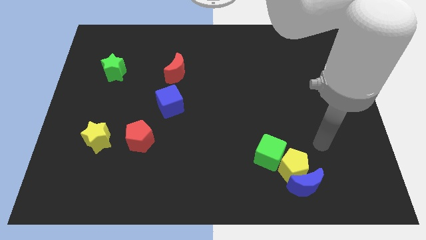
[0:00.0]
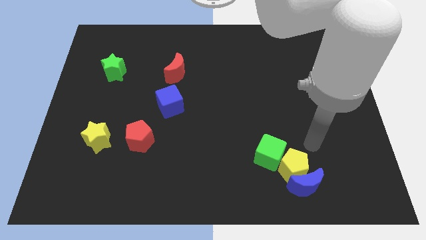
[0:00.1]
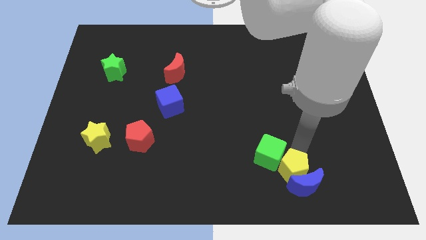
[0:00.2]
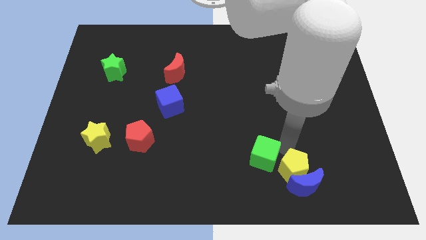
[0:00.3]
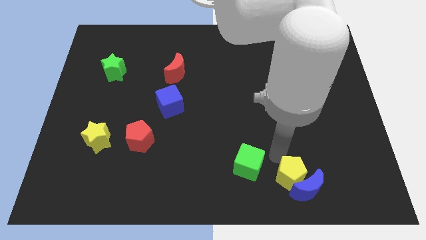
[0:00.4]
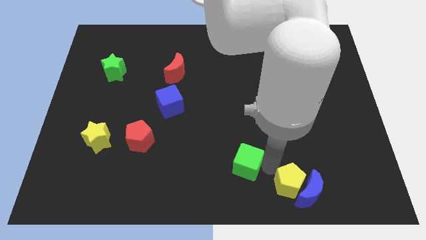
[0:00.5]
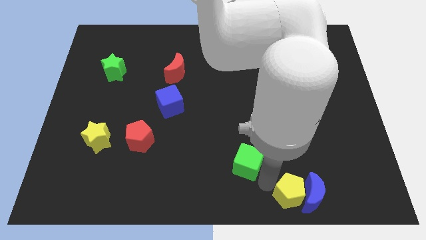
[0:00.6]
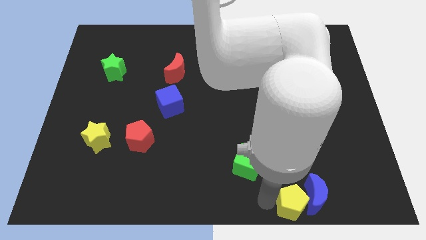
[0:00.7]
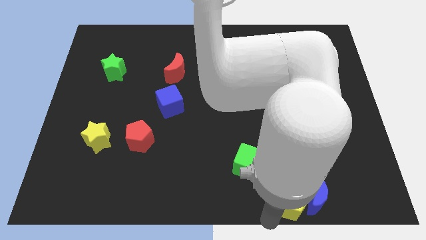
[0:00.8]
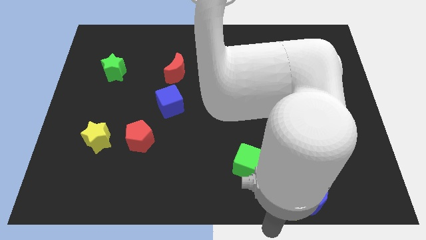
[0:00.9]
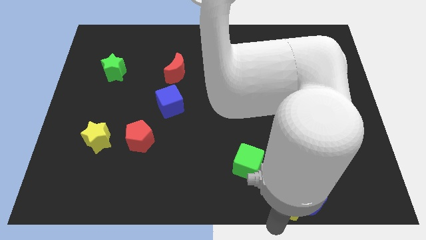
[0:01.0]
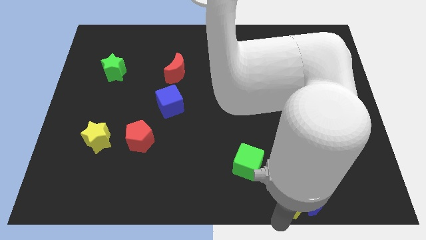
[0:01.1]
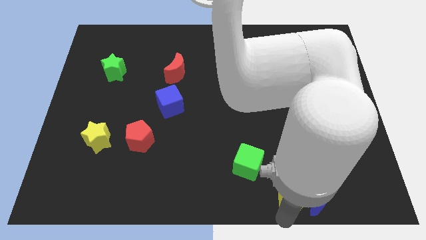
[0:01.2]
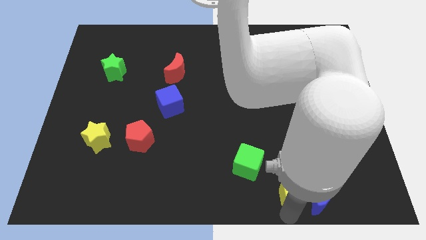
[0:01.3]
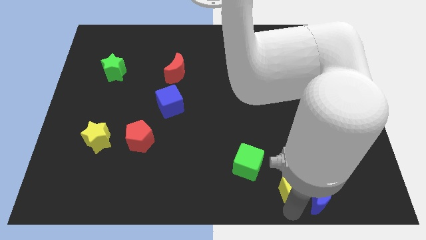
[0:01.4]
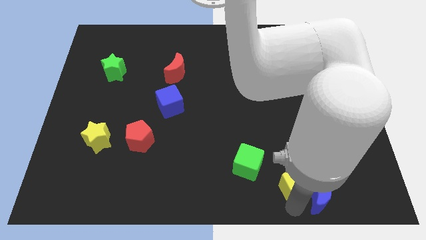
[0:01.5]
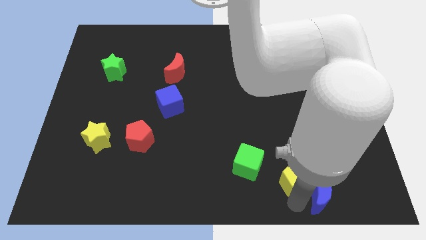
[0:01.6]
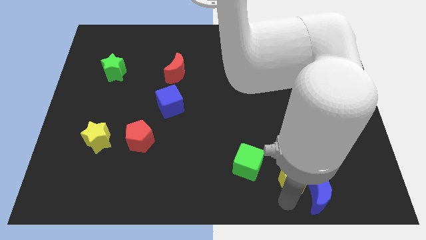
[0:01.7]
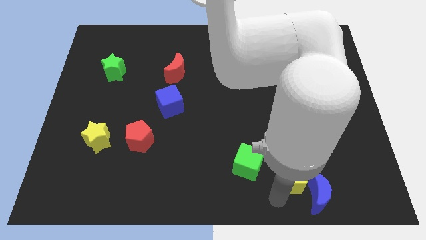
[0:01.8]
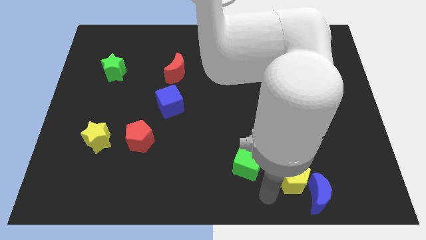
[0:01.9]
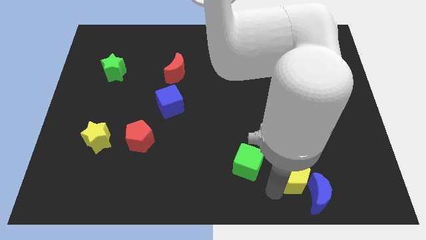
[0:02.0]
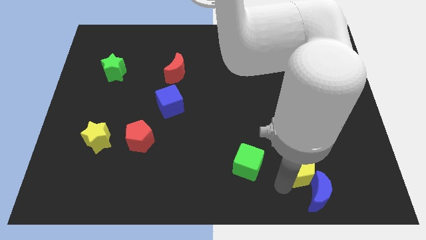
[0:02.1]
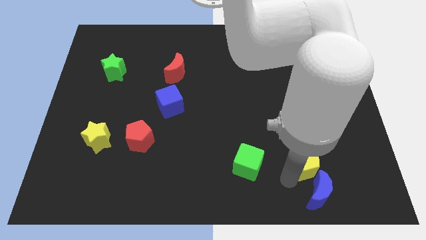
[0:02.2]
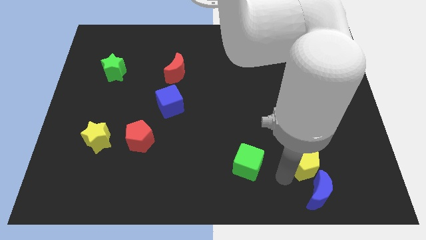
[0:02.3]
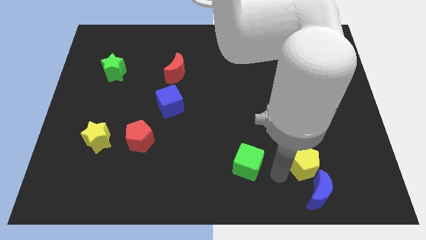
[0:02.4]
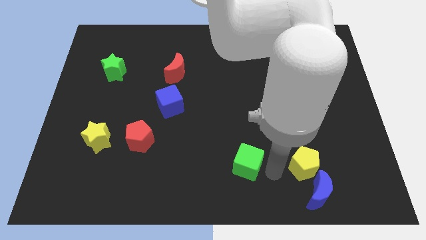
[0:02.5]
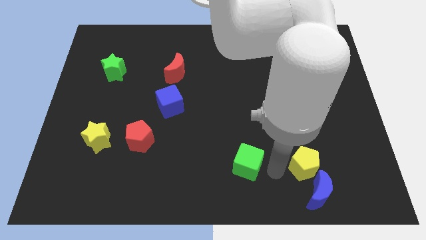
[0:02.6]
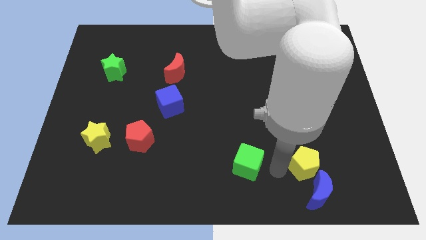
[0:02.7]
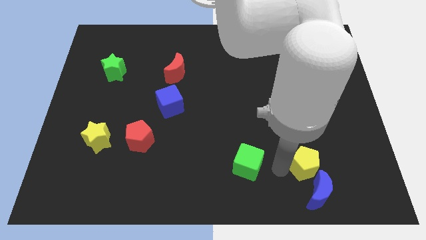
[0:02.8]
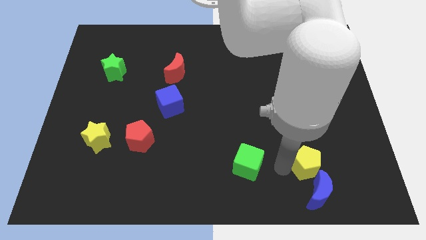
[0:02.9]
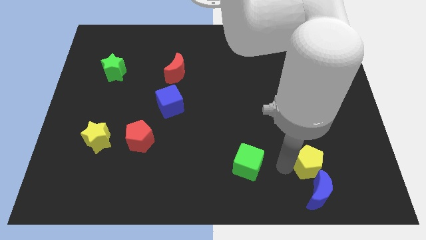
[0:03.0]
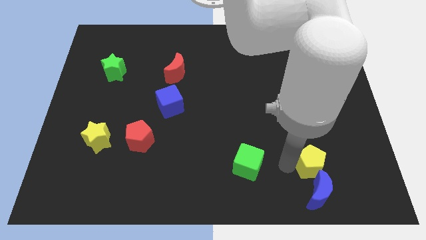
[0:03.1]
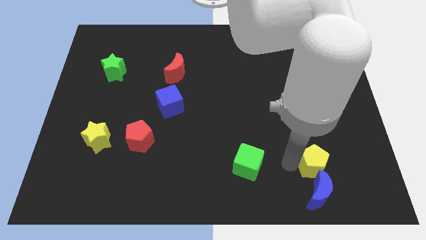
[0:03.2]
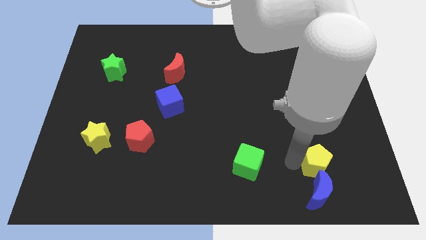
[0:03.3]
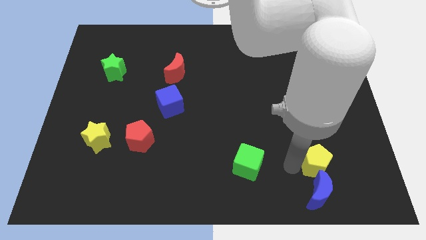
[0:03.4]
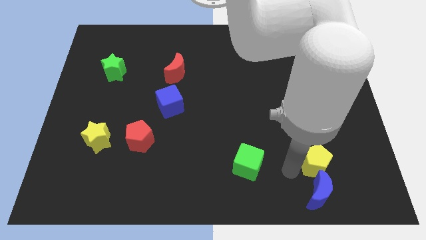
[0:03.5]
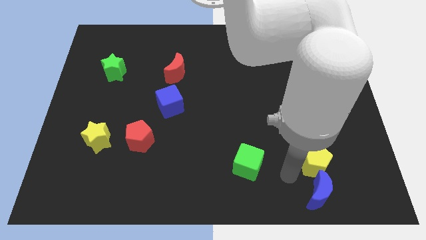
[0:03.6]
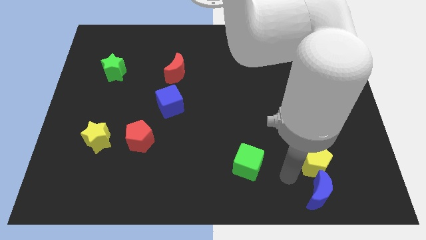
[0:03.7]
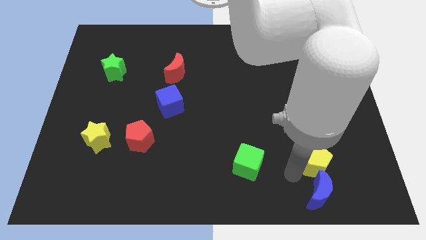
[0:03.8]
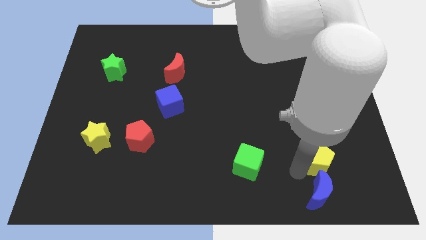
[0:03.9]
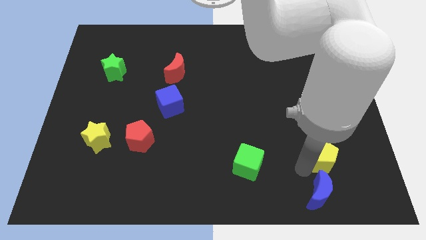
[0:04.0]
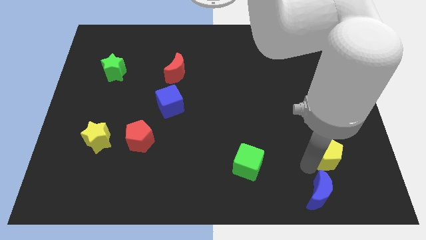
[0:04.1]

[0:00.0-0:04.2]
pull the yellow pentagon apart from the blue moon and green cube

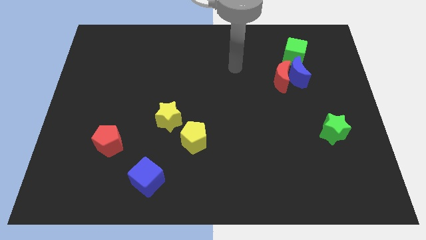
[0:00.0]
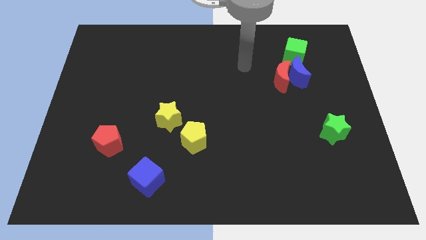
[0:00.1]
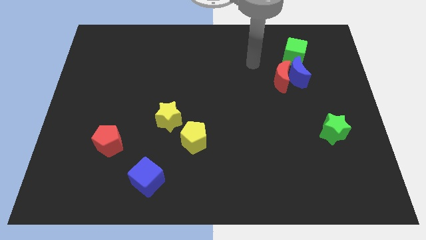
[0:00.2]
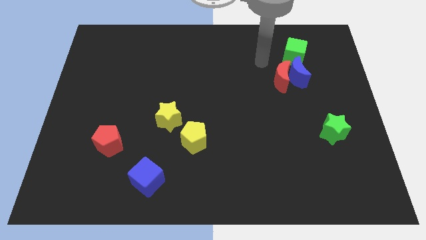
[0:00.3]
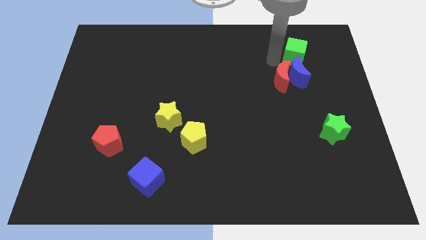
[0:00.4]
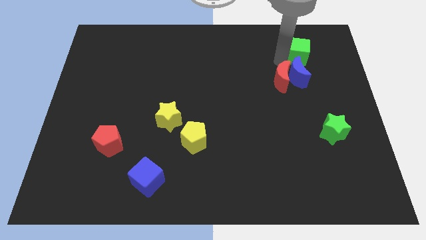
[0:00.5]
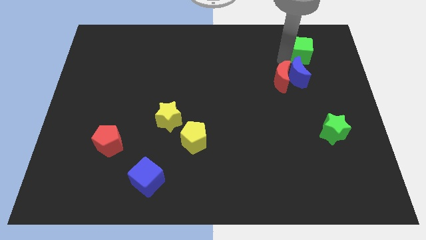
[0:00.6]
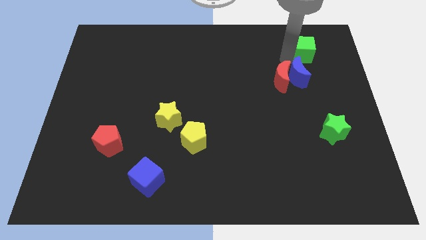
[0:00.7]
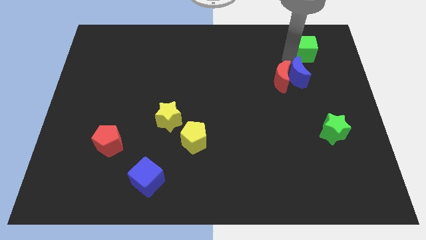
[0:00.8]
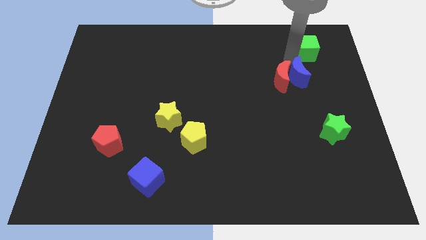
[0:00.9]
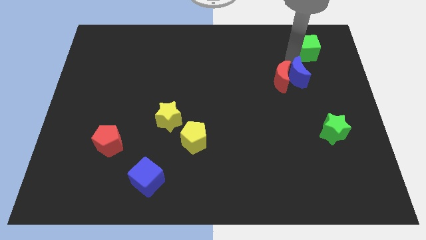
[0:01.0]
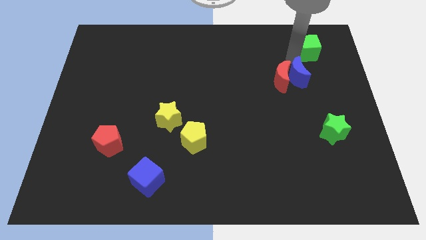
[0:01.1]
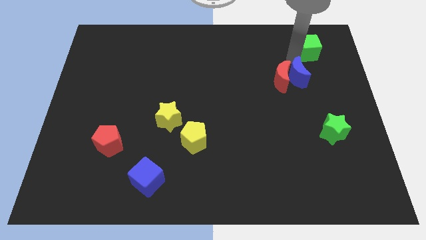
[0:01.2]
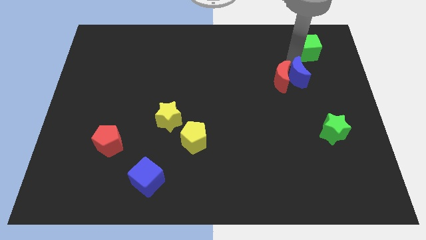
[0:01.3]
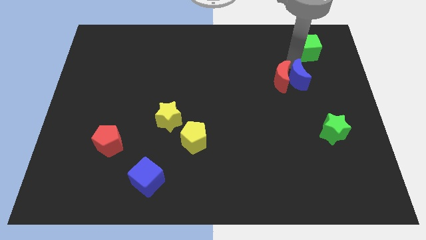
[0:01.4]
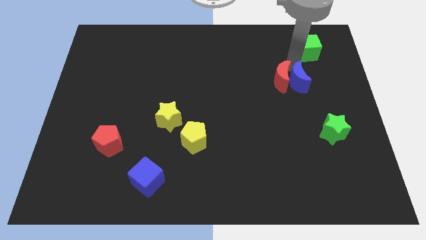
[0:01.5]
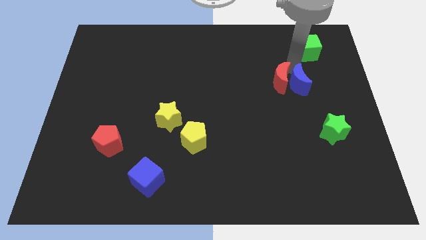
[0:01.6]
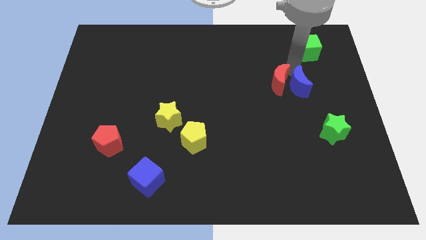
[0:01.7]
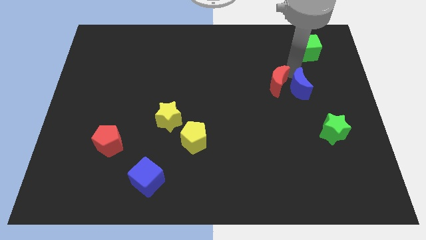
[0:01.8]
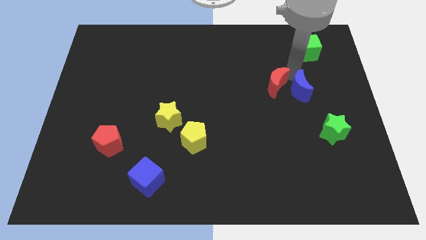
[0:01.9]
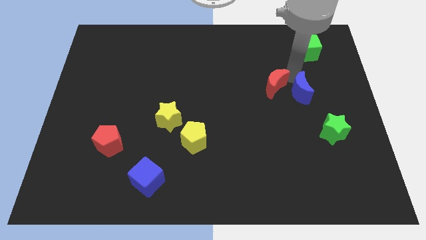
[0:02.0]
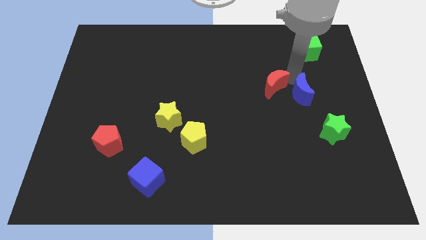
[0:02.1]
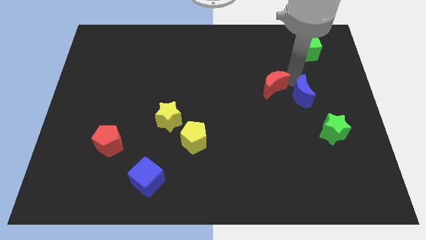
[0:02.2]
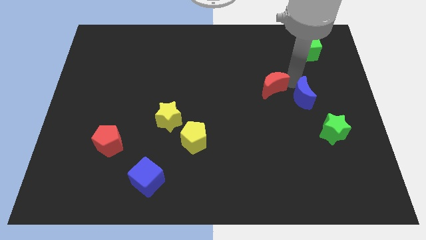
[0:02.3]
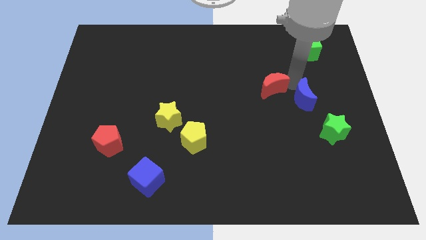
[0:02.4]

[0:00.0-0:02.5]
move the blue moon away from the red moon and green cube

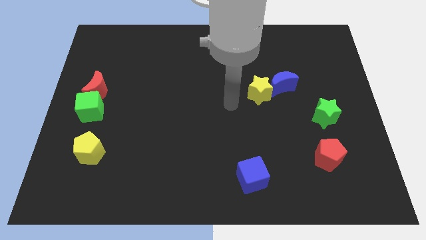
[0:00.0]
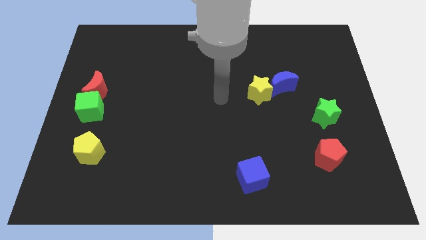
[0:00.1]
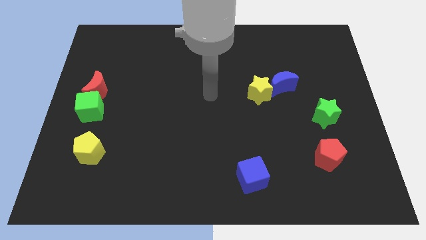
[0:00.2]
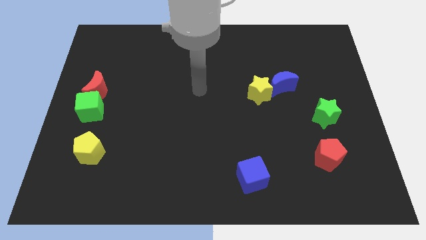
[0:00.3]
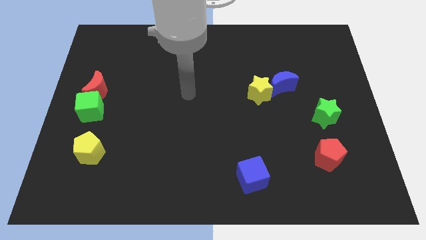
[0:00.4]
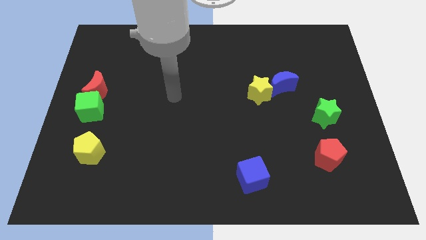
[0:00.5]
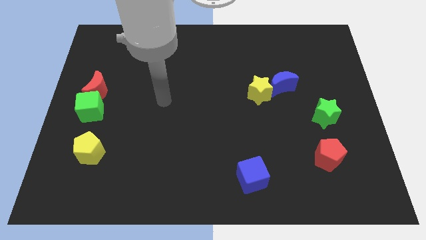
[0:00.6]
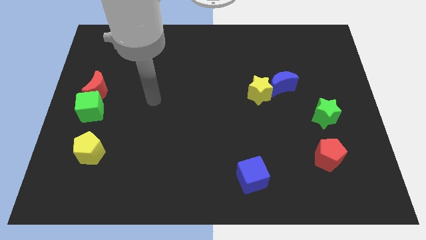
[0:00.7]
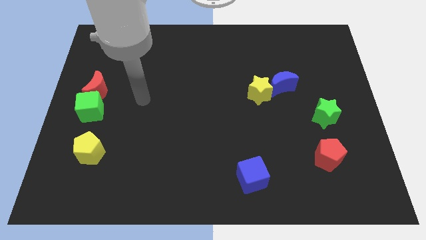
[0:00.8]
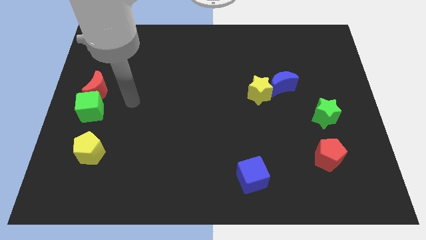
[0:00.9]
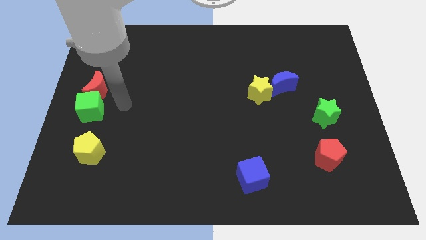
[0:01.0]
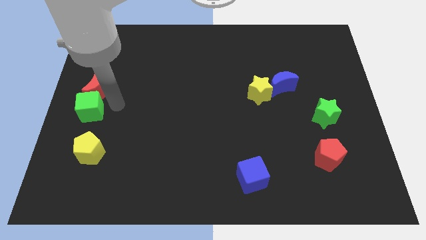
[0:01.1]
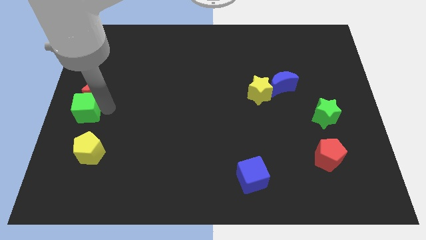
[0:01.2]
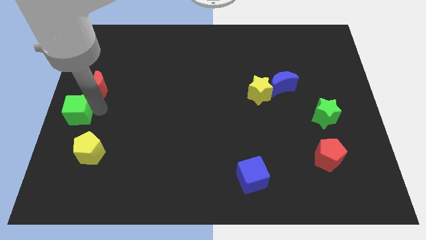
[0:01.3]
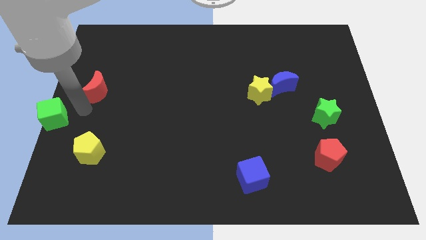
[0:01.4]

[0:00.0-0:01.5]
move the red moon away from the green cube

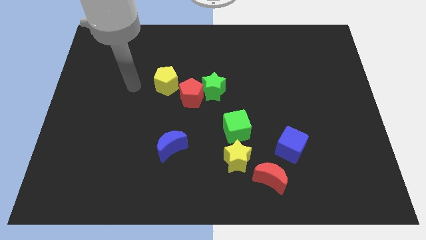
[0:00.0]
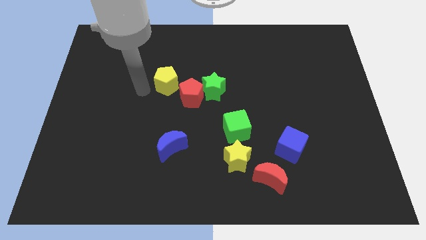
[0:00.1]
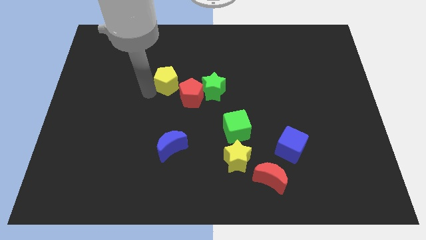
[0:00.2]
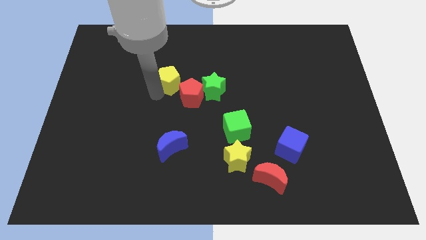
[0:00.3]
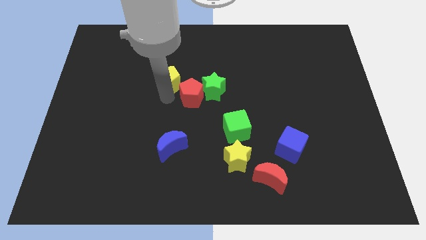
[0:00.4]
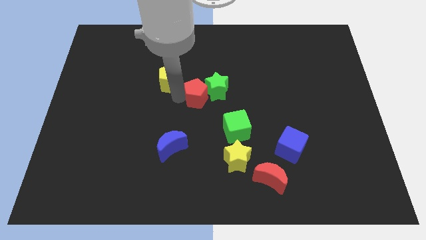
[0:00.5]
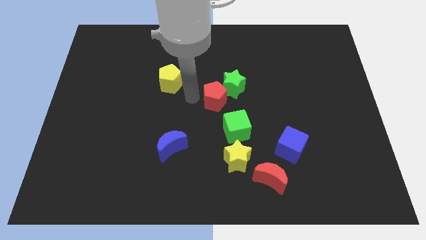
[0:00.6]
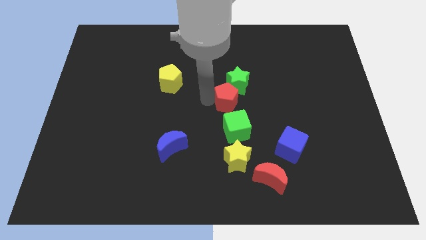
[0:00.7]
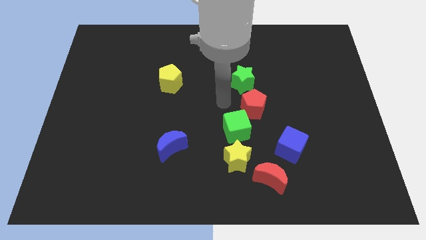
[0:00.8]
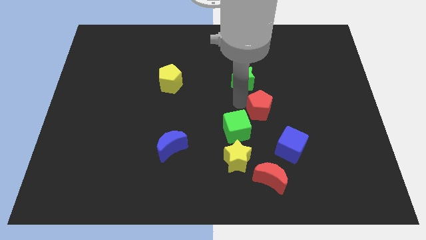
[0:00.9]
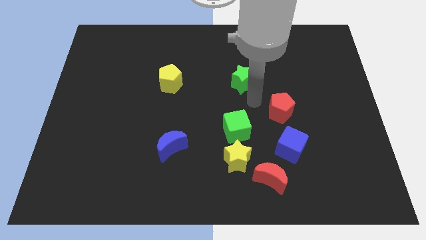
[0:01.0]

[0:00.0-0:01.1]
separate the green star from the red pentagon
